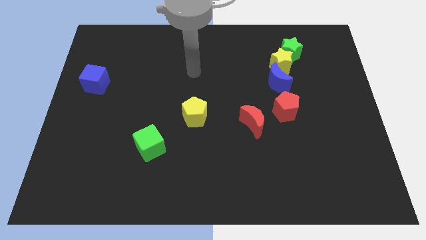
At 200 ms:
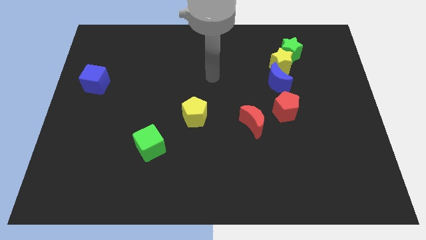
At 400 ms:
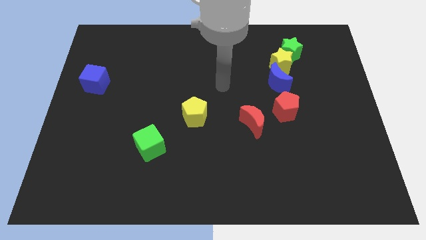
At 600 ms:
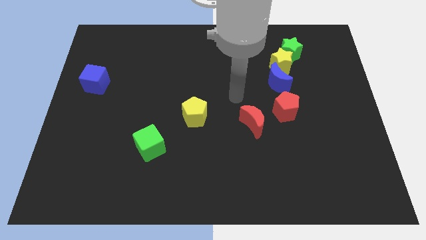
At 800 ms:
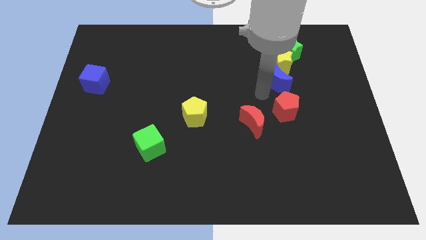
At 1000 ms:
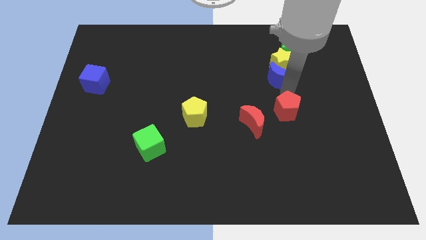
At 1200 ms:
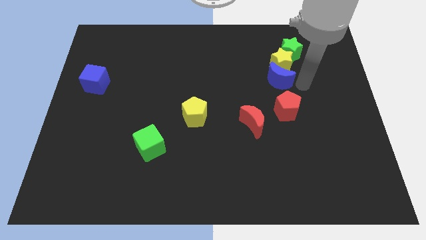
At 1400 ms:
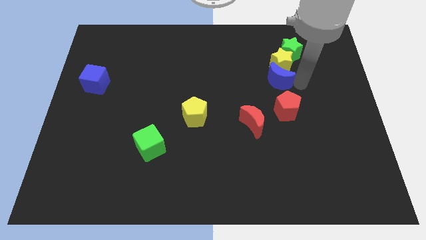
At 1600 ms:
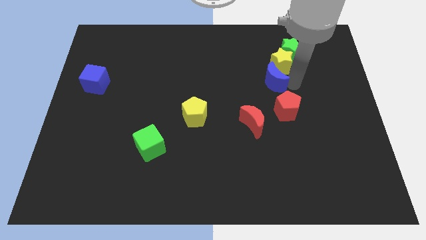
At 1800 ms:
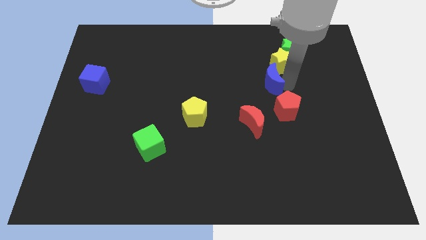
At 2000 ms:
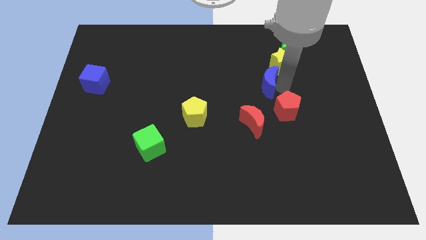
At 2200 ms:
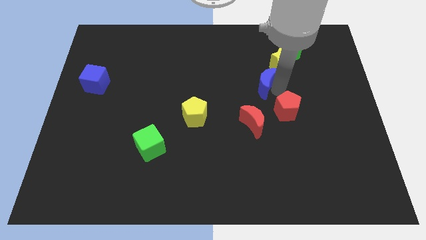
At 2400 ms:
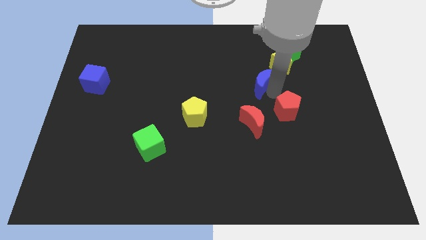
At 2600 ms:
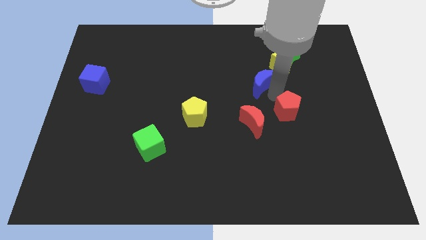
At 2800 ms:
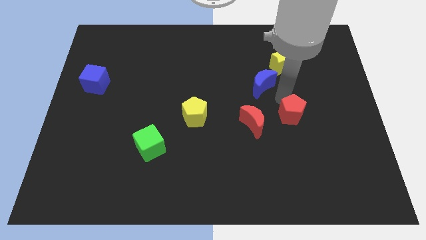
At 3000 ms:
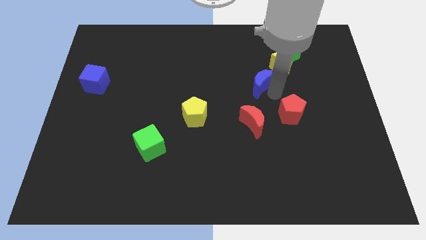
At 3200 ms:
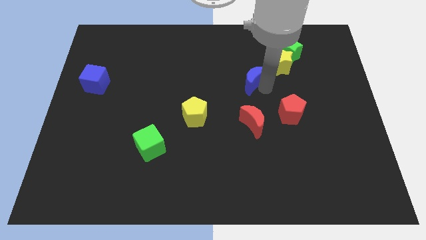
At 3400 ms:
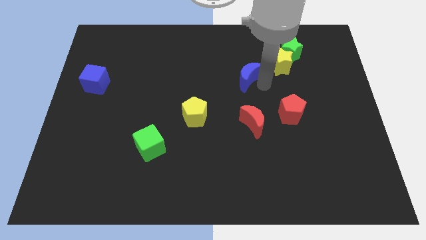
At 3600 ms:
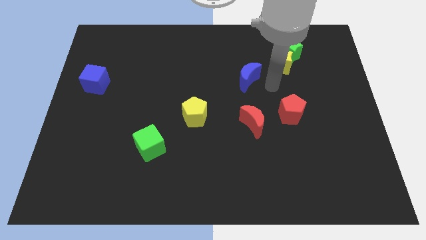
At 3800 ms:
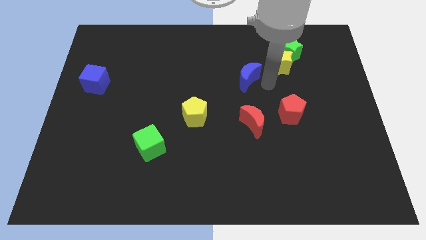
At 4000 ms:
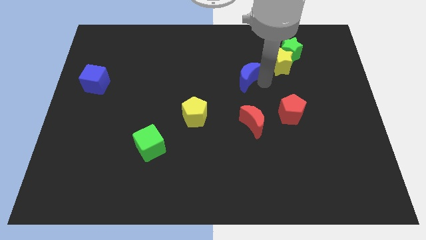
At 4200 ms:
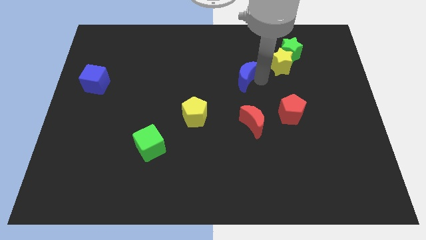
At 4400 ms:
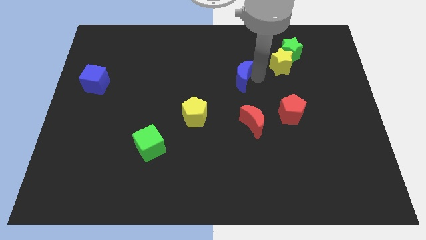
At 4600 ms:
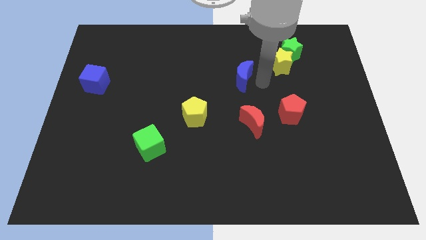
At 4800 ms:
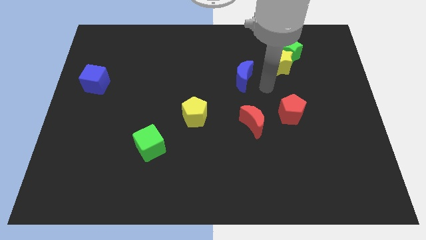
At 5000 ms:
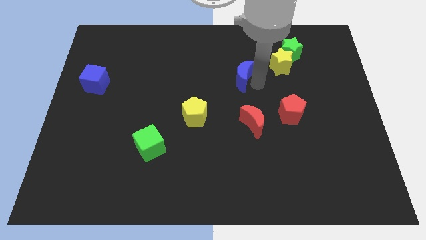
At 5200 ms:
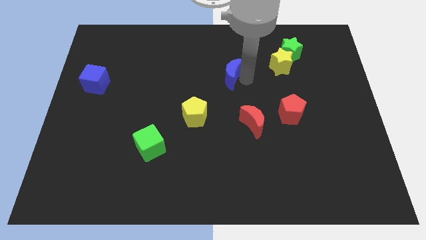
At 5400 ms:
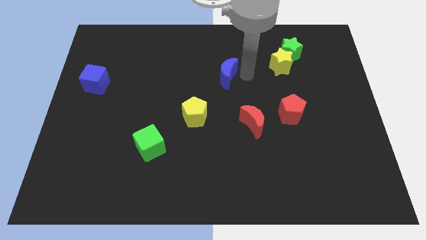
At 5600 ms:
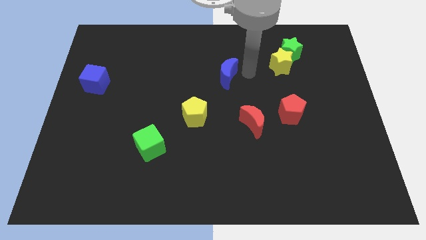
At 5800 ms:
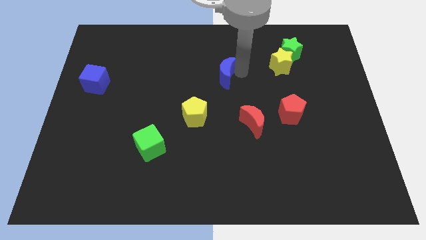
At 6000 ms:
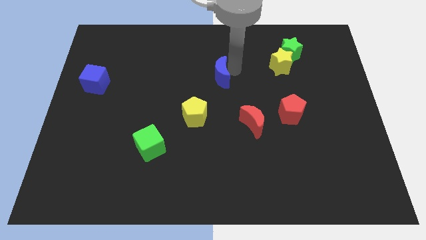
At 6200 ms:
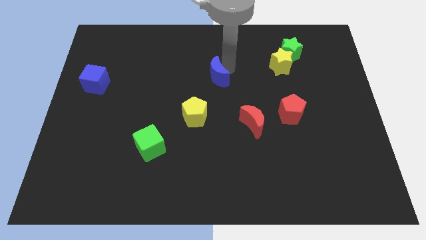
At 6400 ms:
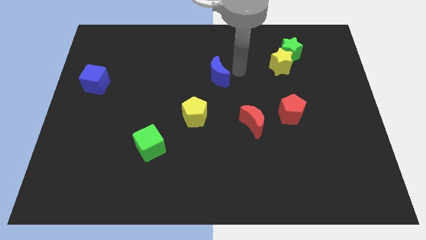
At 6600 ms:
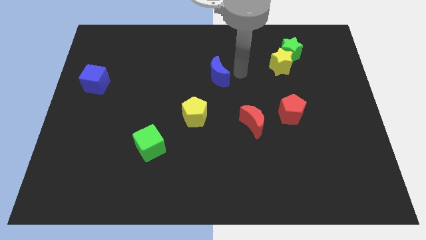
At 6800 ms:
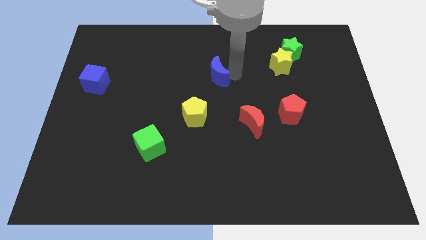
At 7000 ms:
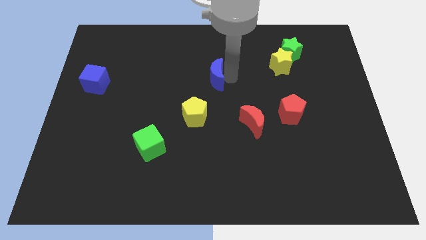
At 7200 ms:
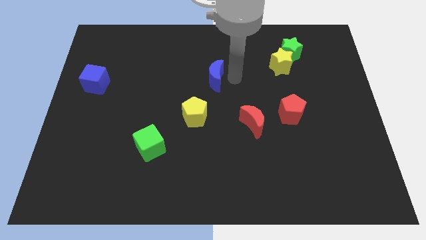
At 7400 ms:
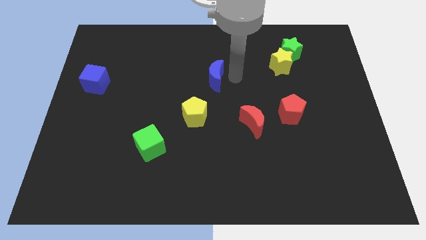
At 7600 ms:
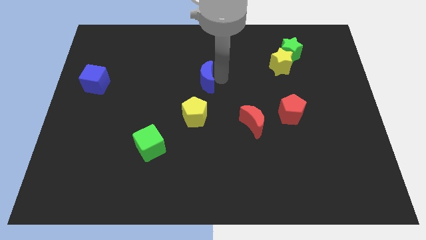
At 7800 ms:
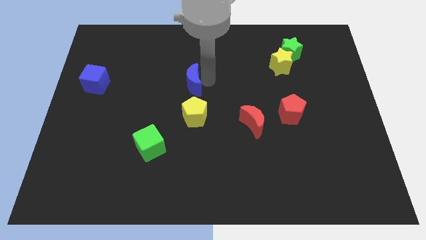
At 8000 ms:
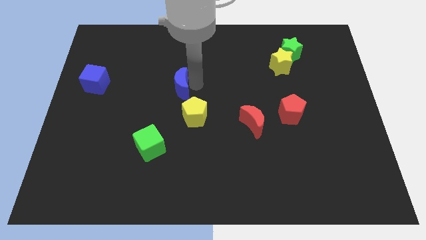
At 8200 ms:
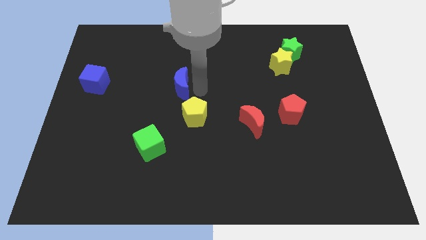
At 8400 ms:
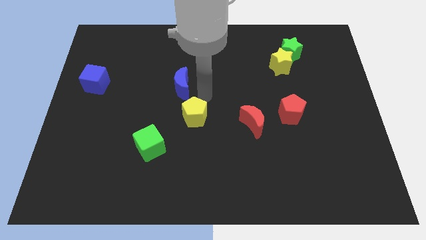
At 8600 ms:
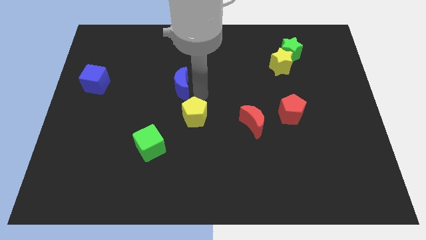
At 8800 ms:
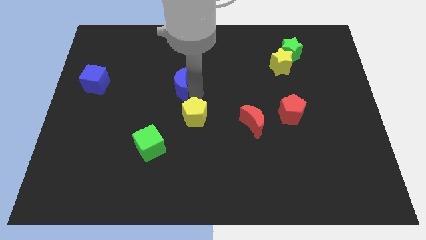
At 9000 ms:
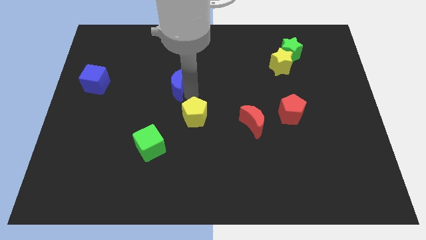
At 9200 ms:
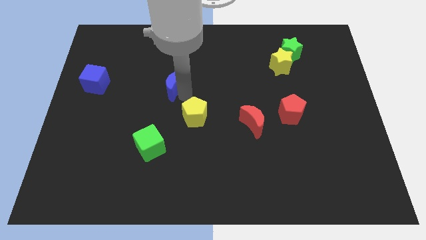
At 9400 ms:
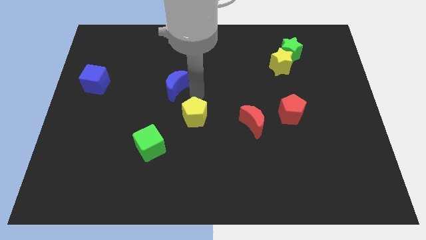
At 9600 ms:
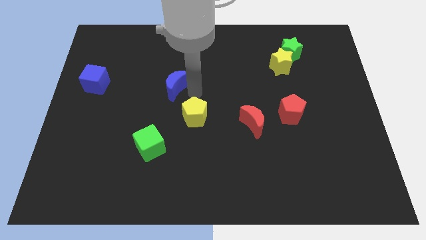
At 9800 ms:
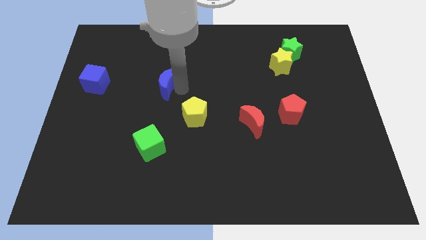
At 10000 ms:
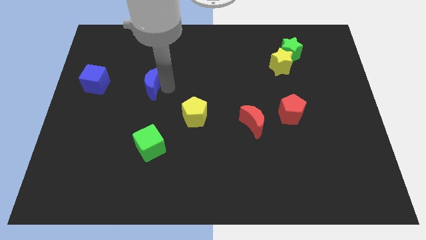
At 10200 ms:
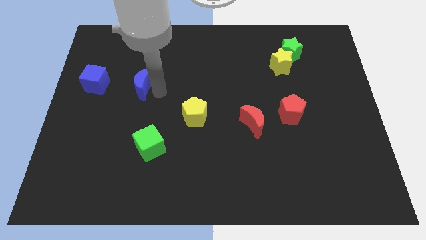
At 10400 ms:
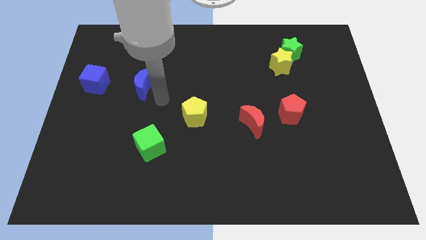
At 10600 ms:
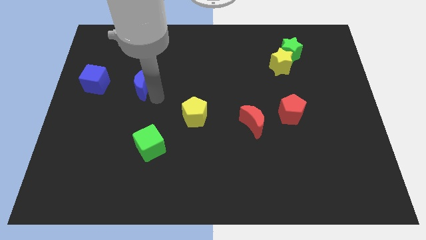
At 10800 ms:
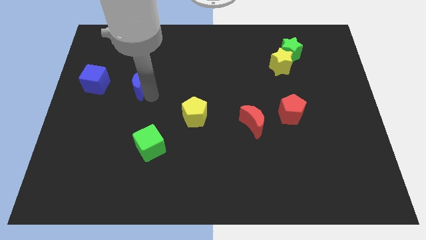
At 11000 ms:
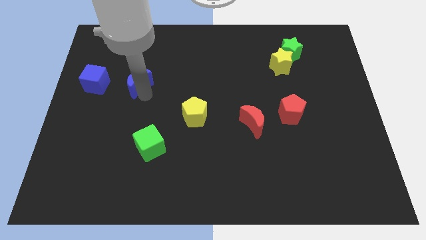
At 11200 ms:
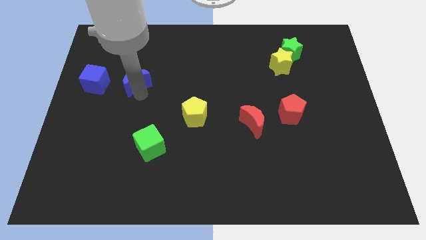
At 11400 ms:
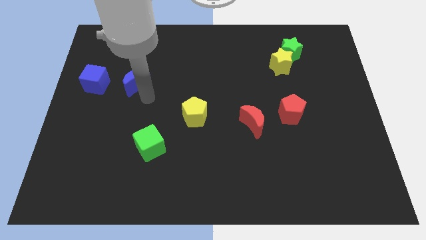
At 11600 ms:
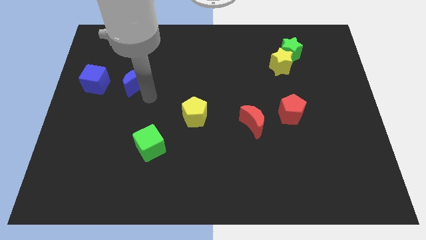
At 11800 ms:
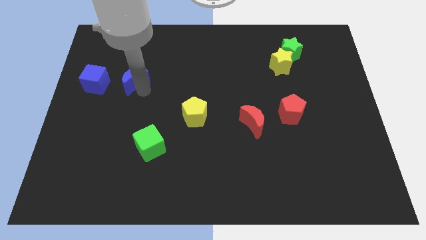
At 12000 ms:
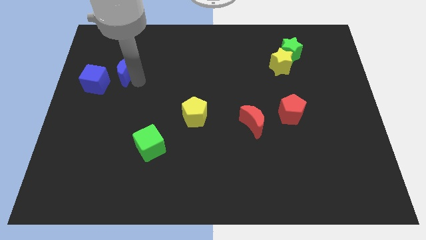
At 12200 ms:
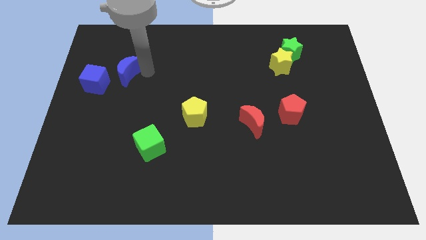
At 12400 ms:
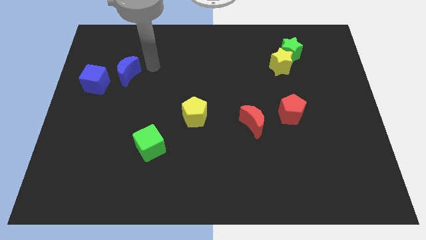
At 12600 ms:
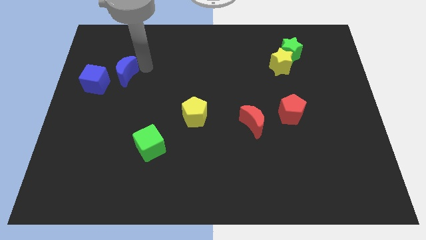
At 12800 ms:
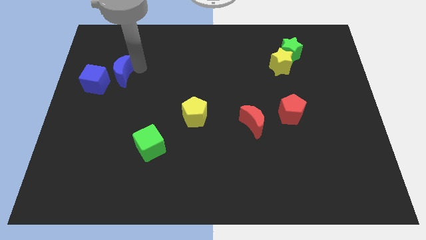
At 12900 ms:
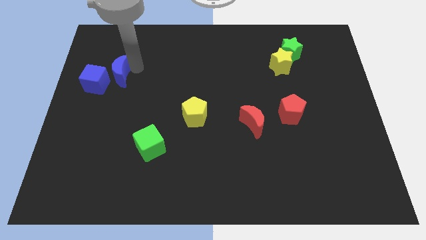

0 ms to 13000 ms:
put the blue moon towards the blue cube

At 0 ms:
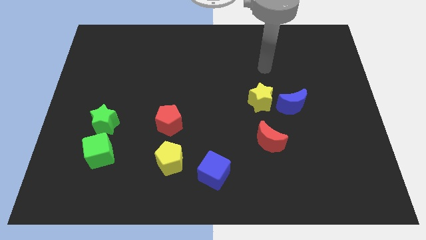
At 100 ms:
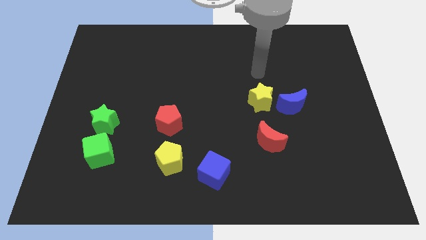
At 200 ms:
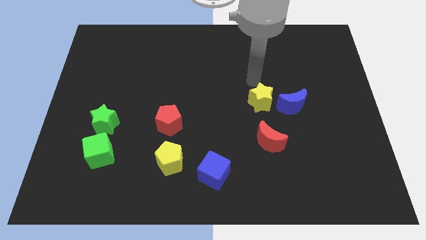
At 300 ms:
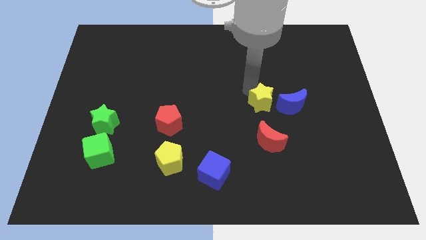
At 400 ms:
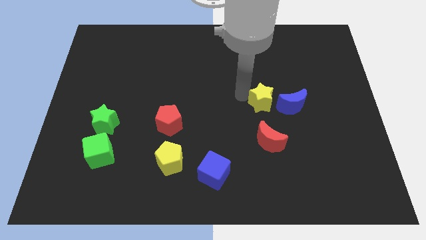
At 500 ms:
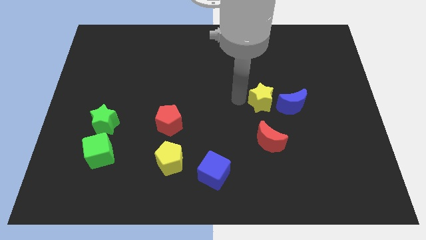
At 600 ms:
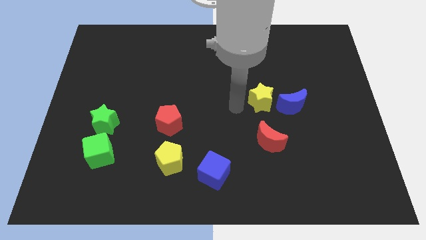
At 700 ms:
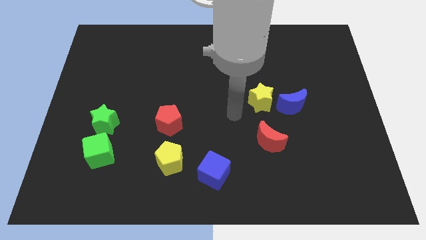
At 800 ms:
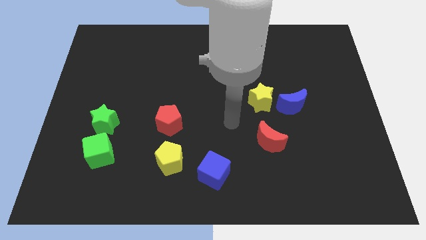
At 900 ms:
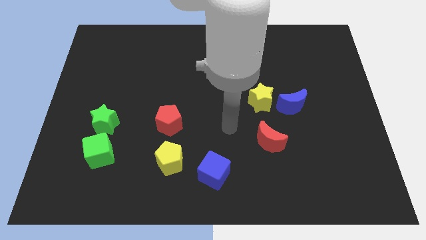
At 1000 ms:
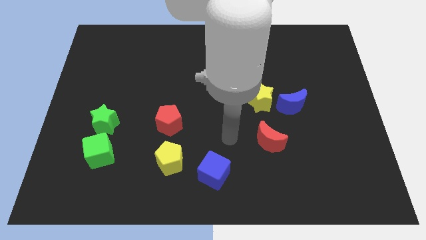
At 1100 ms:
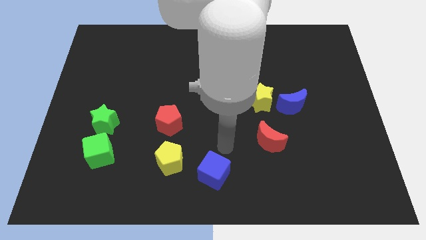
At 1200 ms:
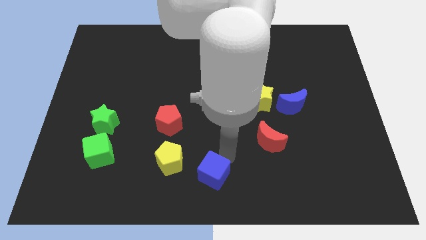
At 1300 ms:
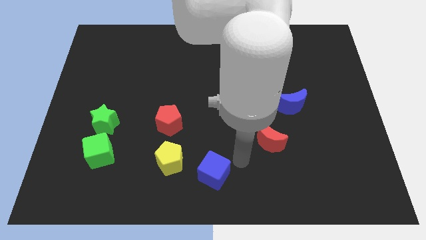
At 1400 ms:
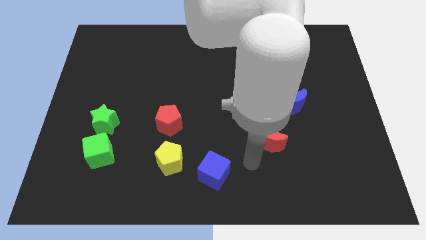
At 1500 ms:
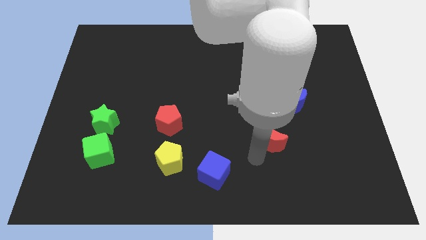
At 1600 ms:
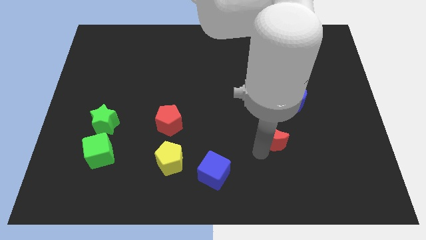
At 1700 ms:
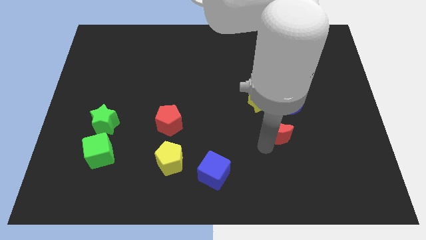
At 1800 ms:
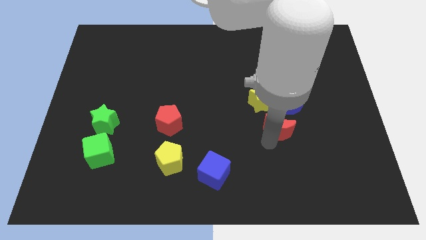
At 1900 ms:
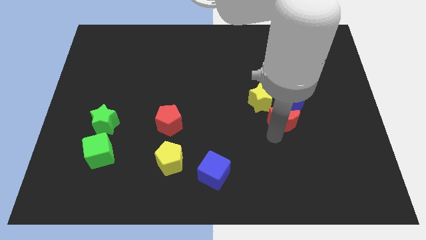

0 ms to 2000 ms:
put the red moon to the blue moon
